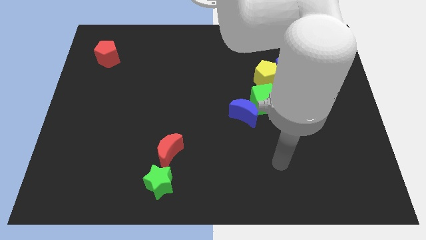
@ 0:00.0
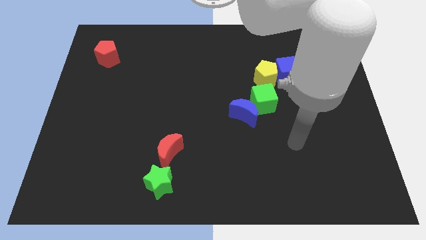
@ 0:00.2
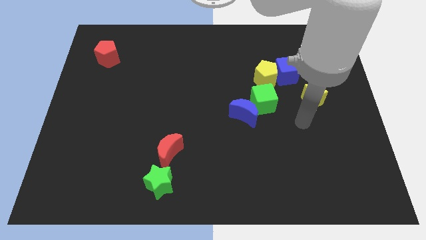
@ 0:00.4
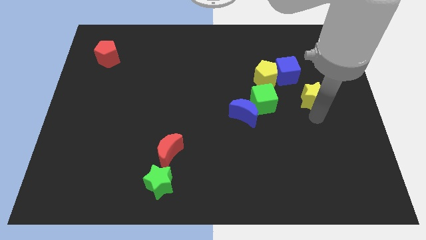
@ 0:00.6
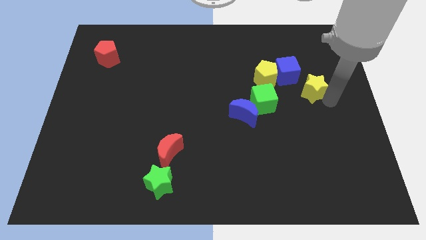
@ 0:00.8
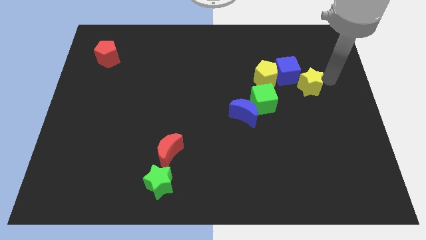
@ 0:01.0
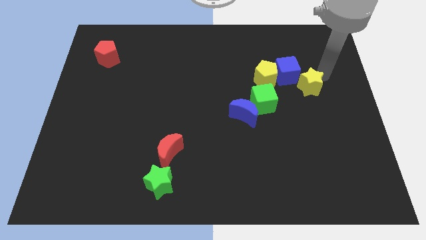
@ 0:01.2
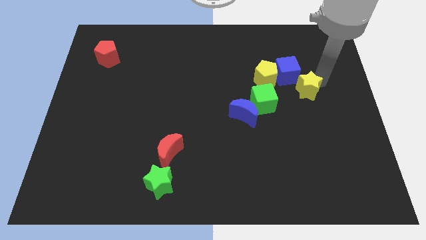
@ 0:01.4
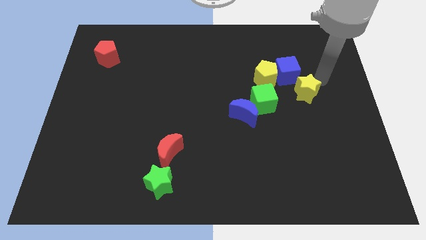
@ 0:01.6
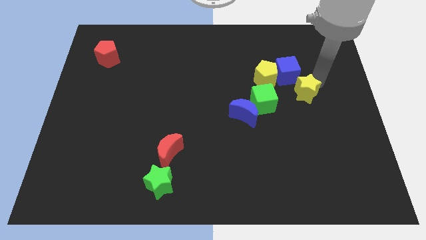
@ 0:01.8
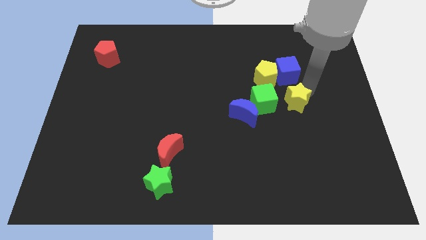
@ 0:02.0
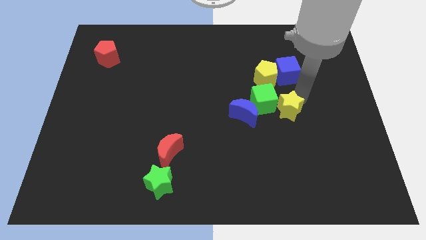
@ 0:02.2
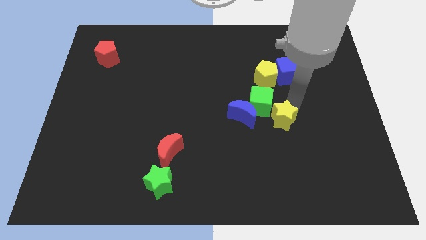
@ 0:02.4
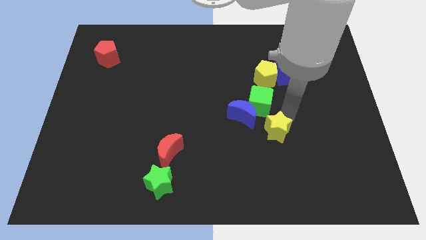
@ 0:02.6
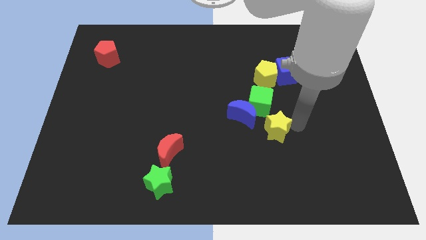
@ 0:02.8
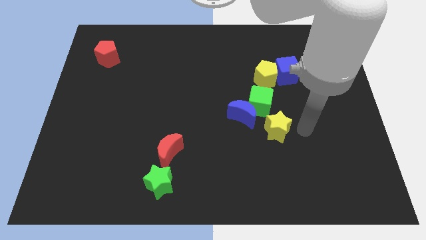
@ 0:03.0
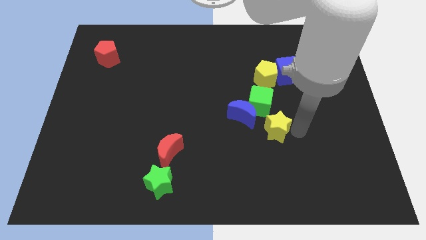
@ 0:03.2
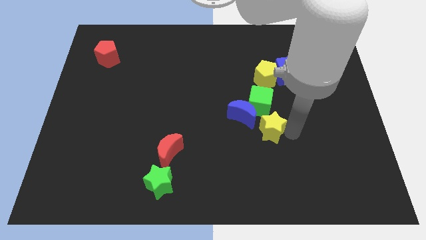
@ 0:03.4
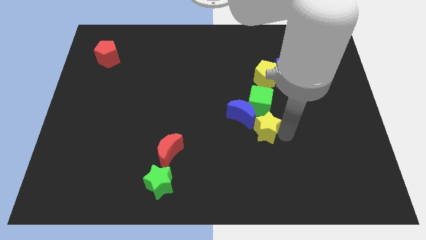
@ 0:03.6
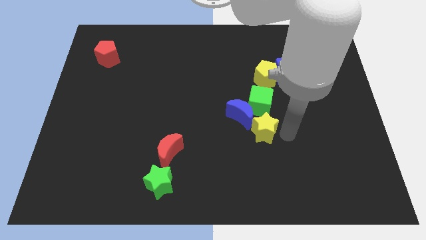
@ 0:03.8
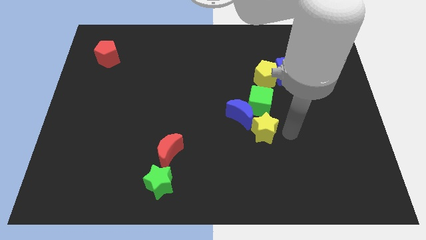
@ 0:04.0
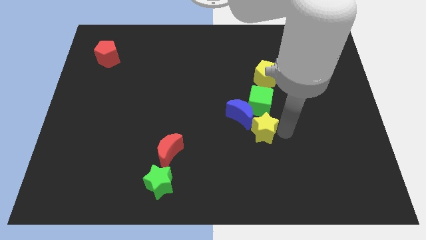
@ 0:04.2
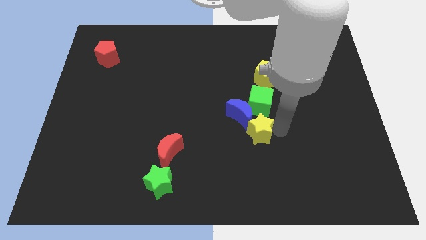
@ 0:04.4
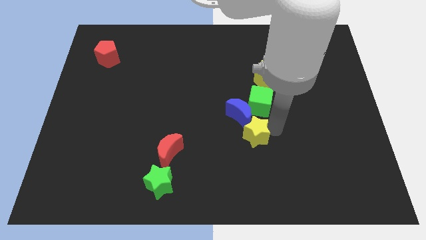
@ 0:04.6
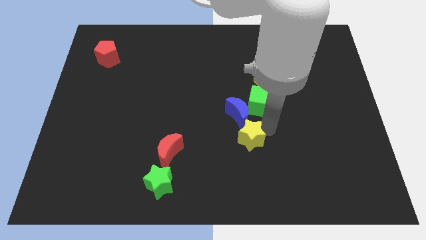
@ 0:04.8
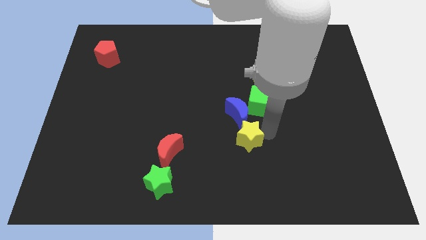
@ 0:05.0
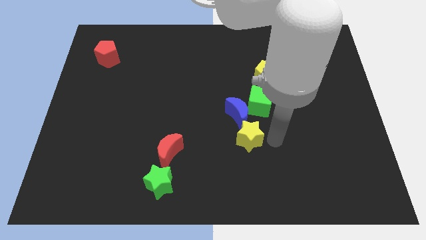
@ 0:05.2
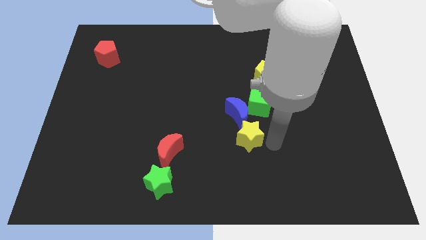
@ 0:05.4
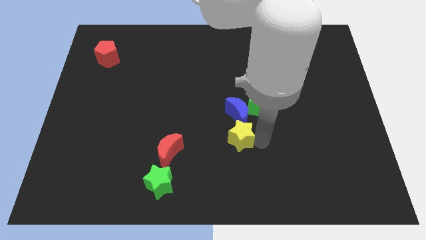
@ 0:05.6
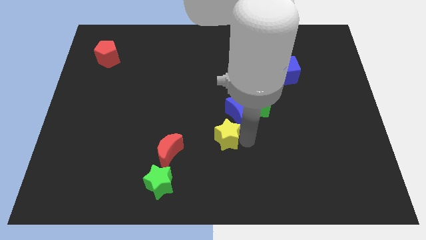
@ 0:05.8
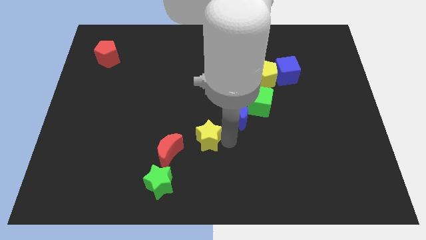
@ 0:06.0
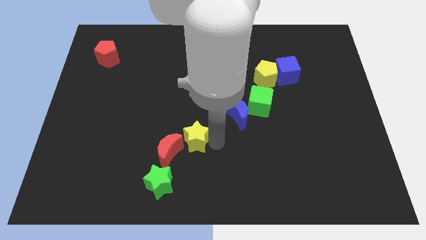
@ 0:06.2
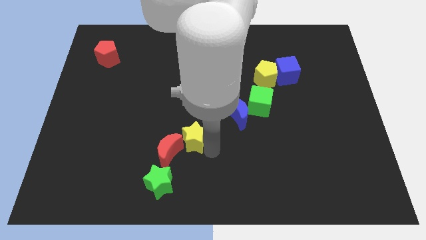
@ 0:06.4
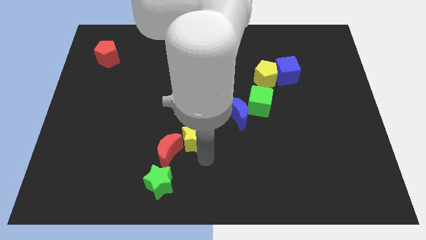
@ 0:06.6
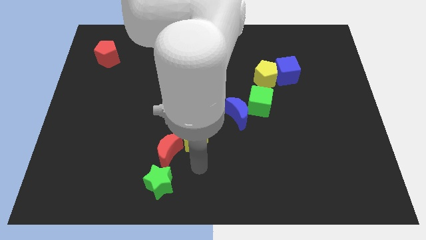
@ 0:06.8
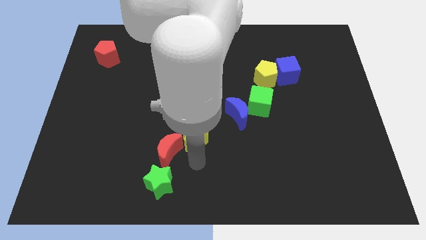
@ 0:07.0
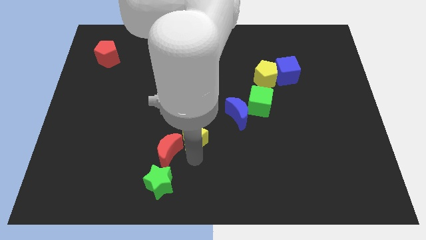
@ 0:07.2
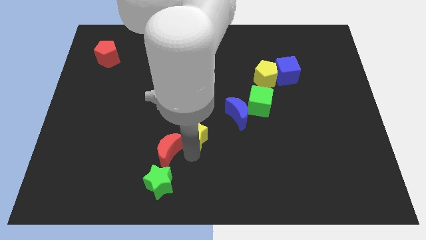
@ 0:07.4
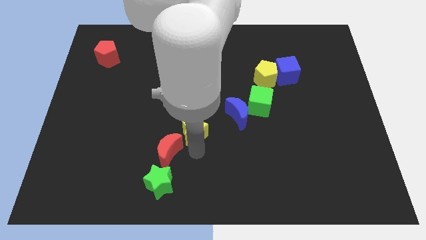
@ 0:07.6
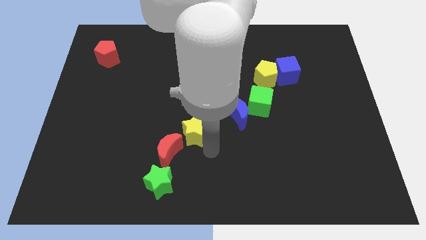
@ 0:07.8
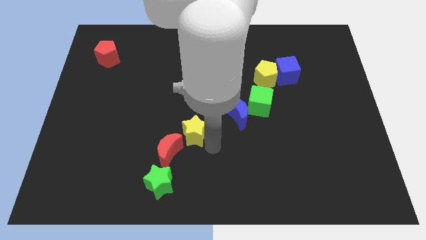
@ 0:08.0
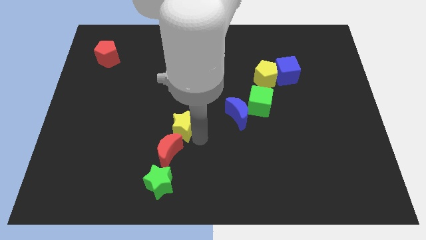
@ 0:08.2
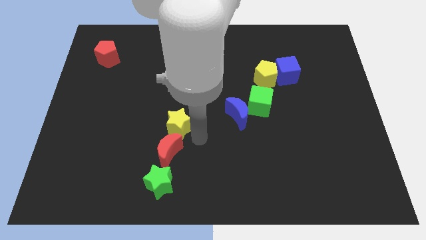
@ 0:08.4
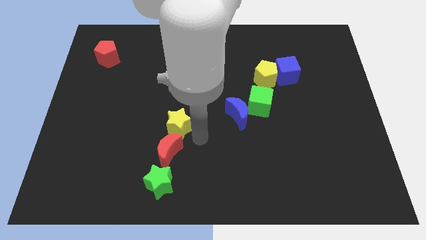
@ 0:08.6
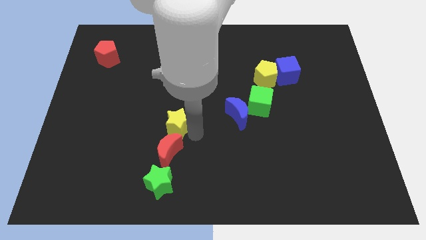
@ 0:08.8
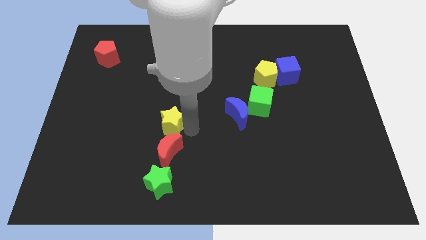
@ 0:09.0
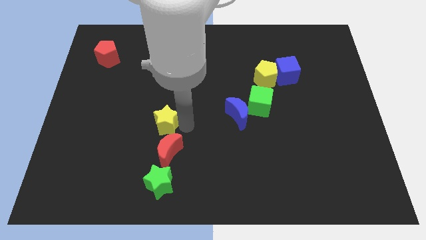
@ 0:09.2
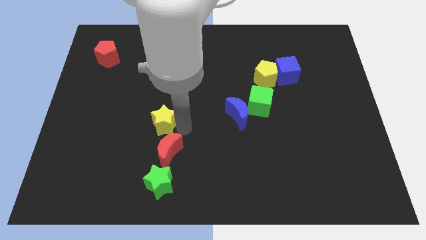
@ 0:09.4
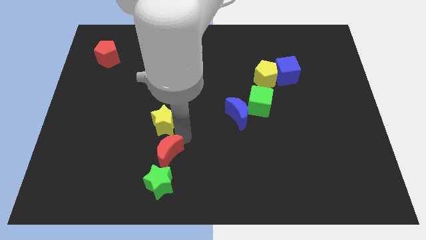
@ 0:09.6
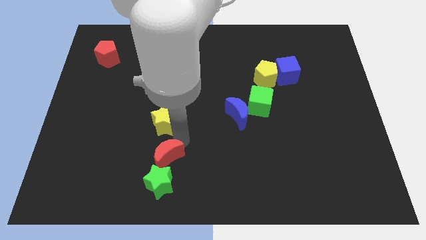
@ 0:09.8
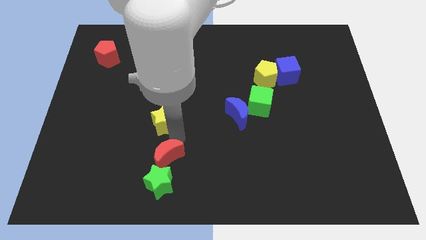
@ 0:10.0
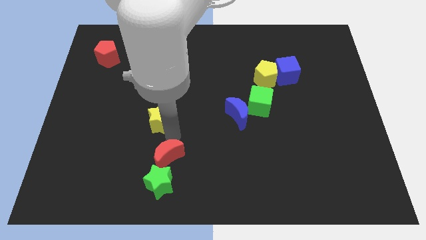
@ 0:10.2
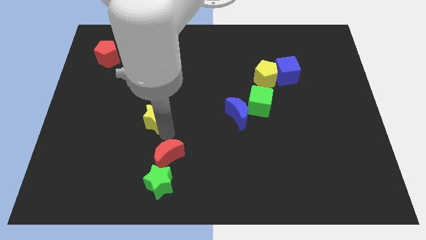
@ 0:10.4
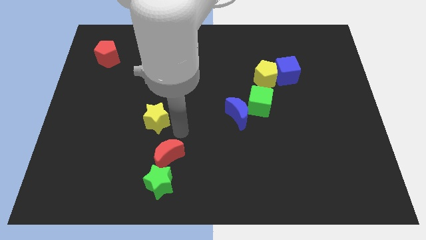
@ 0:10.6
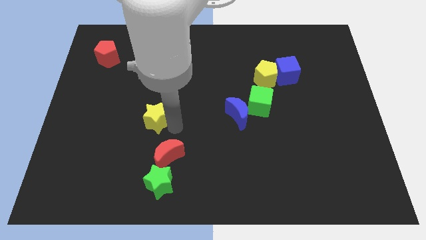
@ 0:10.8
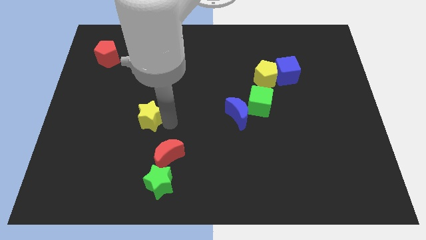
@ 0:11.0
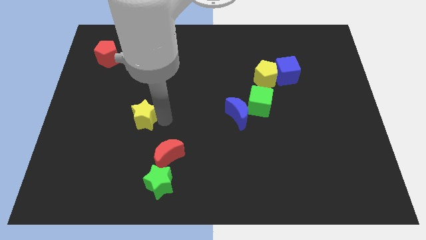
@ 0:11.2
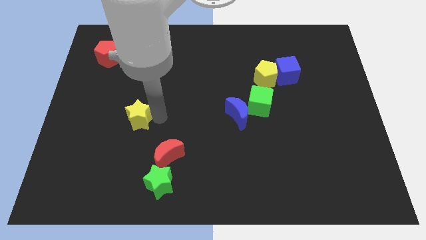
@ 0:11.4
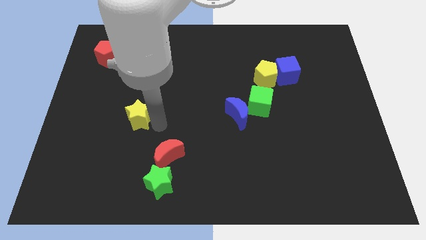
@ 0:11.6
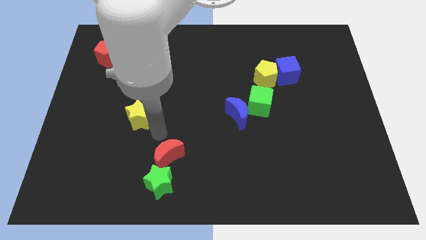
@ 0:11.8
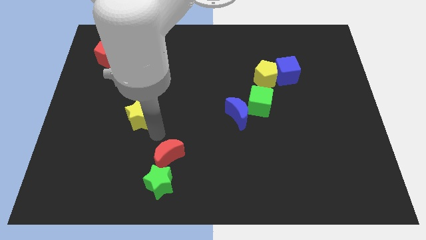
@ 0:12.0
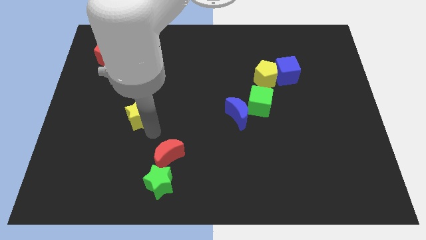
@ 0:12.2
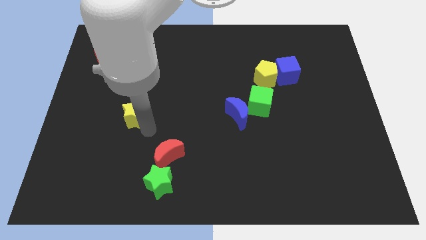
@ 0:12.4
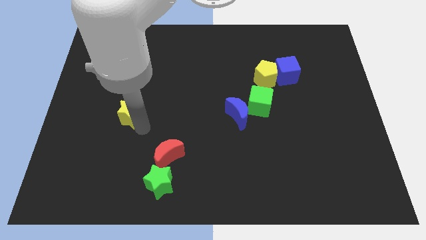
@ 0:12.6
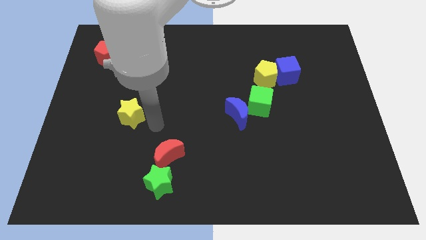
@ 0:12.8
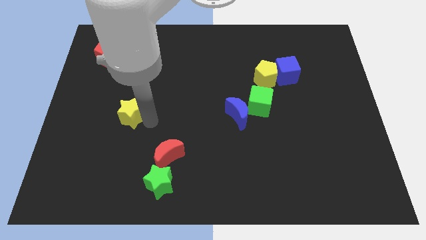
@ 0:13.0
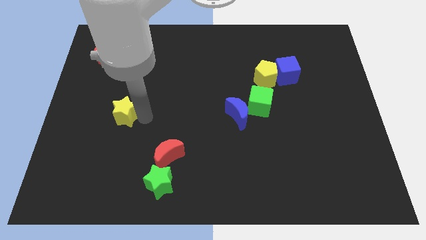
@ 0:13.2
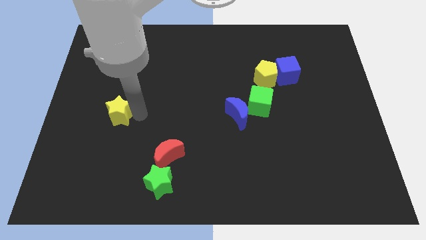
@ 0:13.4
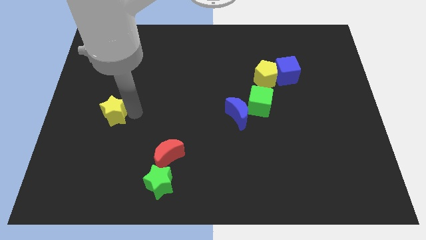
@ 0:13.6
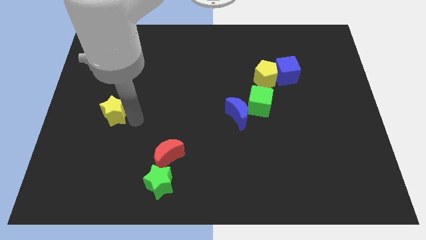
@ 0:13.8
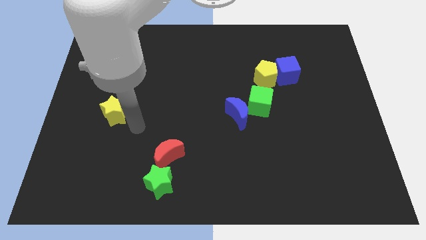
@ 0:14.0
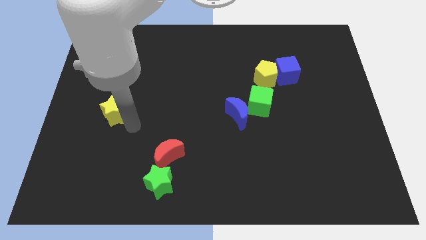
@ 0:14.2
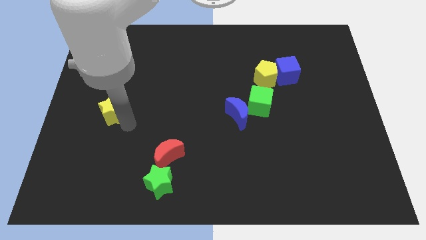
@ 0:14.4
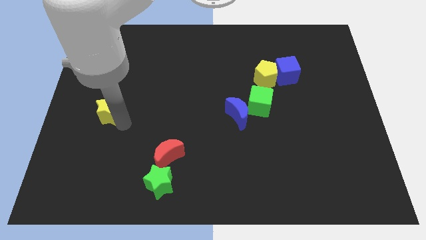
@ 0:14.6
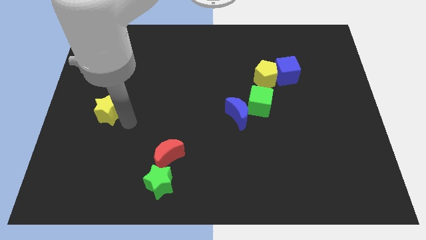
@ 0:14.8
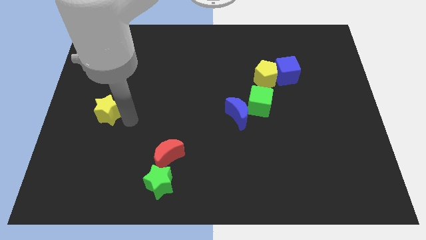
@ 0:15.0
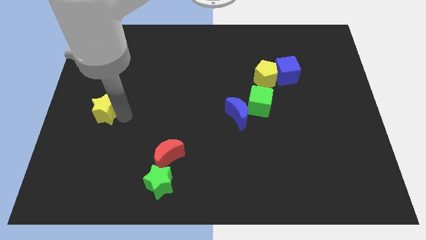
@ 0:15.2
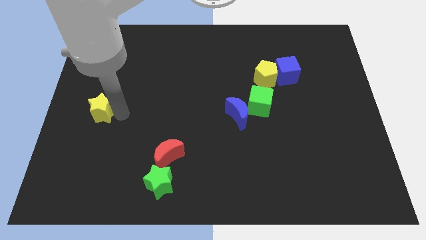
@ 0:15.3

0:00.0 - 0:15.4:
push the yellow star to the left side
